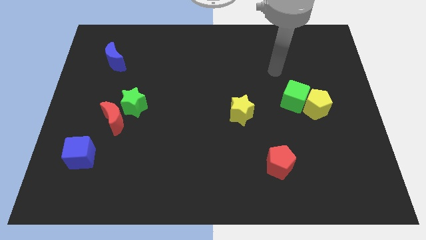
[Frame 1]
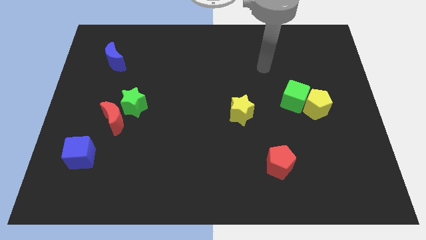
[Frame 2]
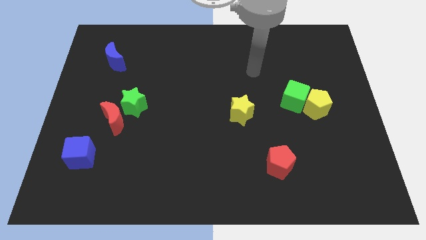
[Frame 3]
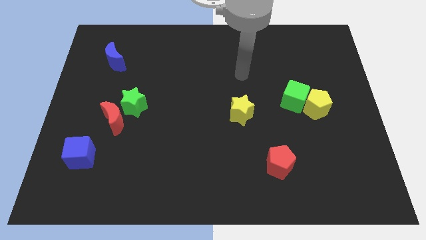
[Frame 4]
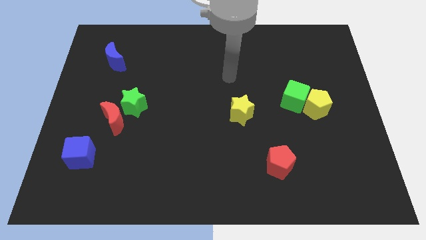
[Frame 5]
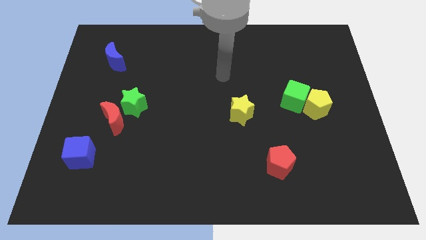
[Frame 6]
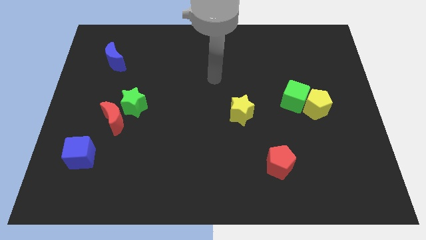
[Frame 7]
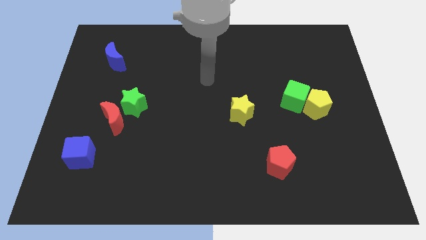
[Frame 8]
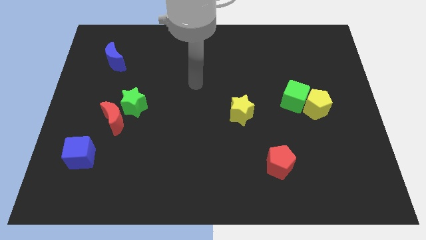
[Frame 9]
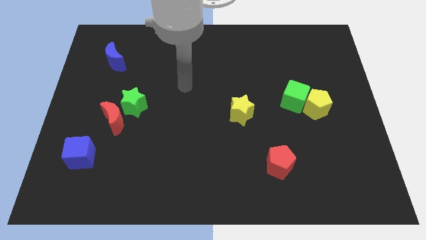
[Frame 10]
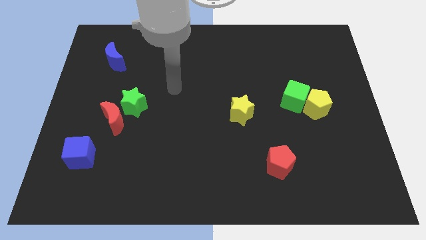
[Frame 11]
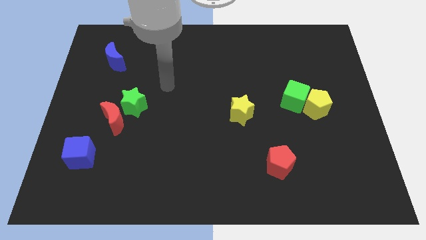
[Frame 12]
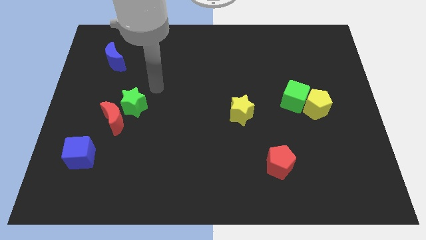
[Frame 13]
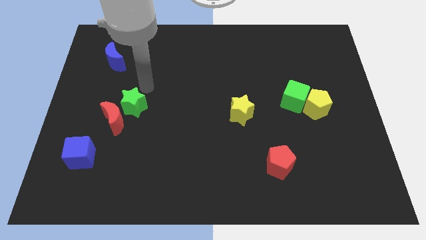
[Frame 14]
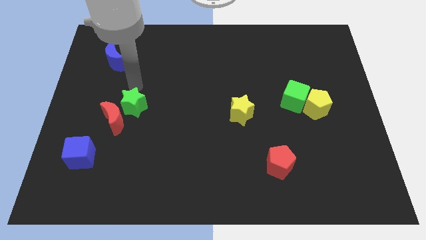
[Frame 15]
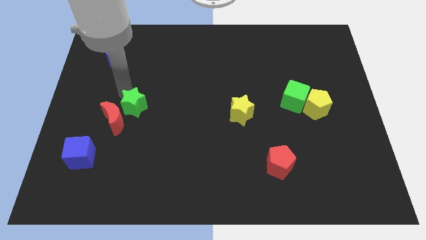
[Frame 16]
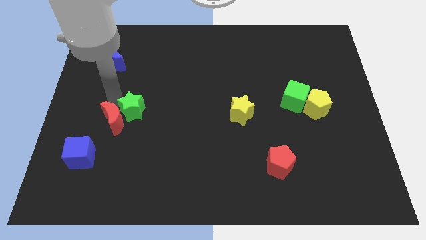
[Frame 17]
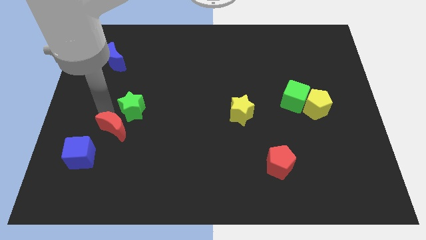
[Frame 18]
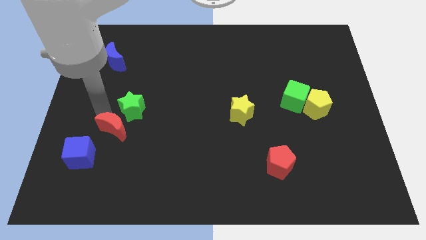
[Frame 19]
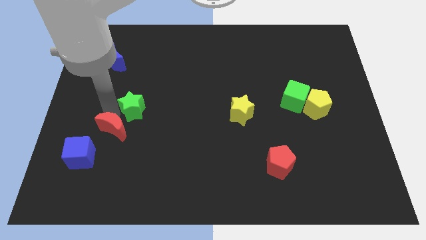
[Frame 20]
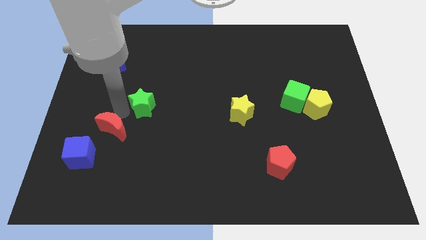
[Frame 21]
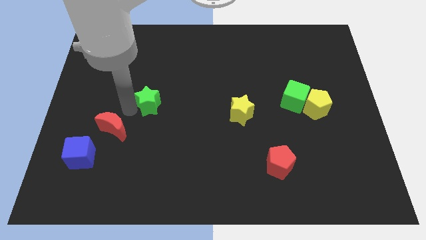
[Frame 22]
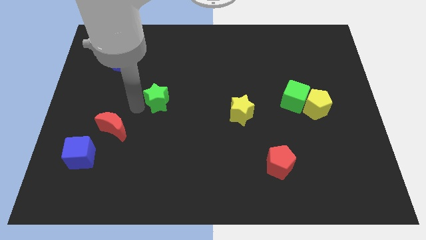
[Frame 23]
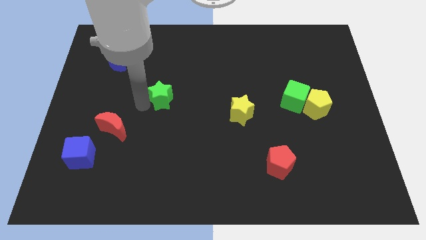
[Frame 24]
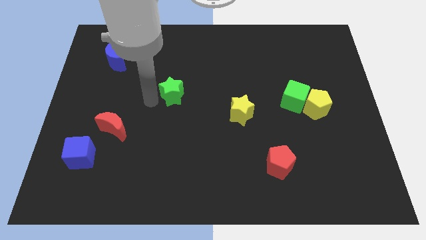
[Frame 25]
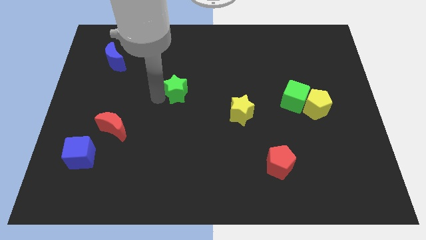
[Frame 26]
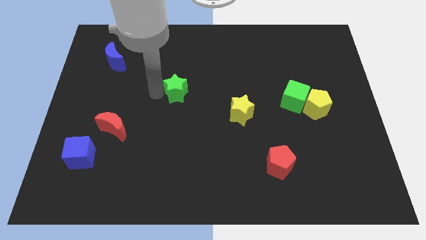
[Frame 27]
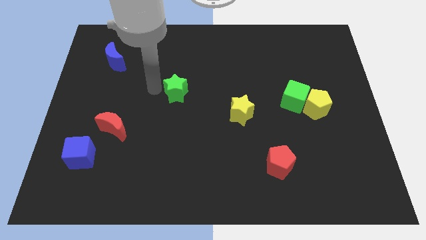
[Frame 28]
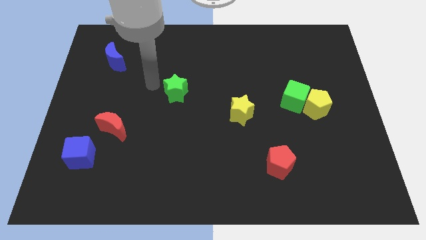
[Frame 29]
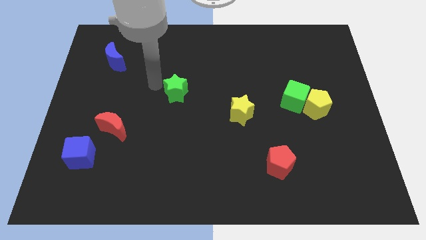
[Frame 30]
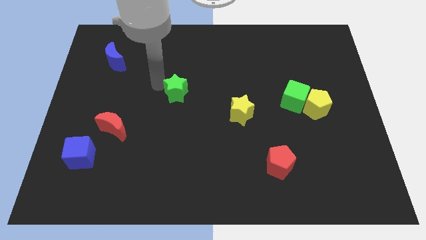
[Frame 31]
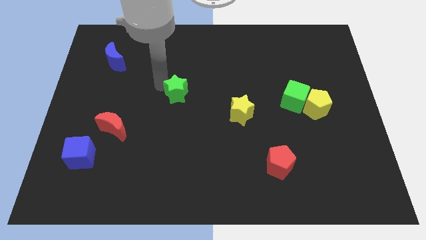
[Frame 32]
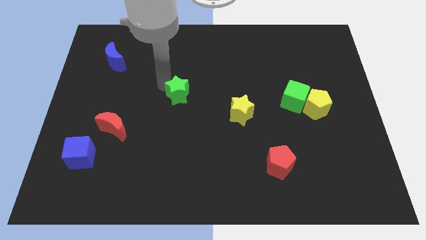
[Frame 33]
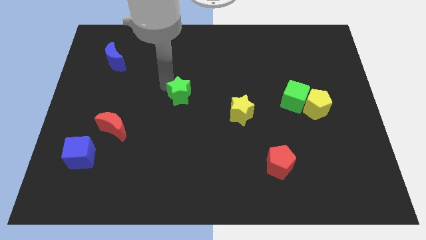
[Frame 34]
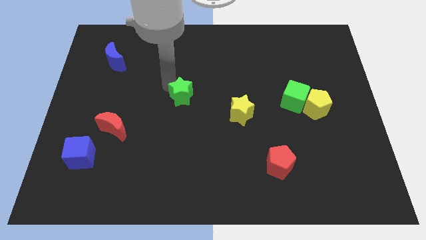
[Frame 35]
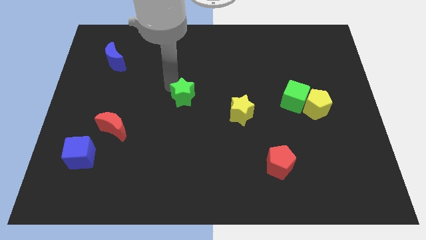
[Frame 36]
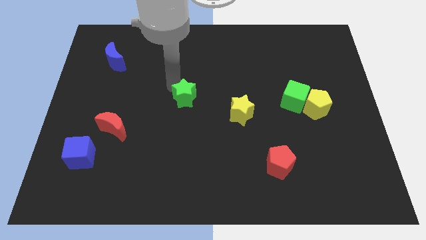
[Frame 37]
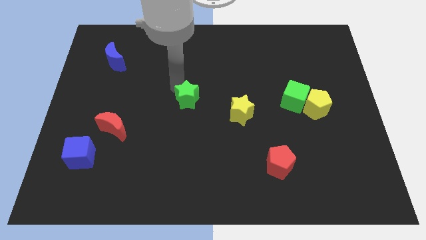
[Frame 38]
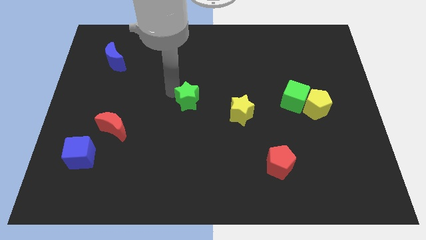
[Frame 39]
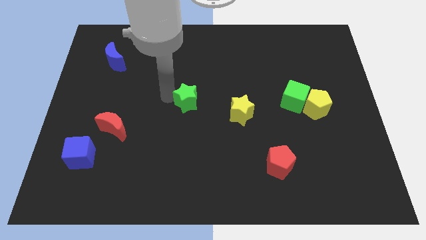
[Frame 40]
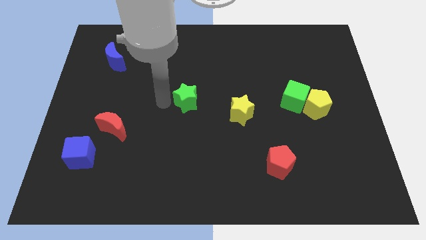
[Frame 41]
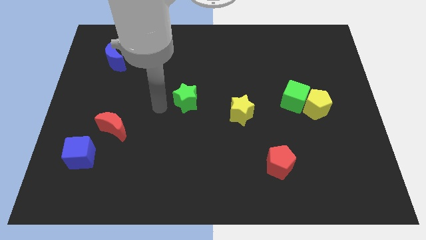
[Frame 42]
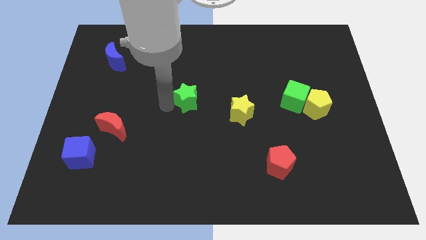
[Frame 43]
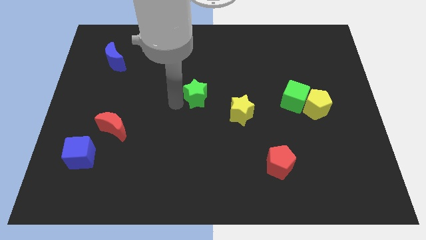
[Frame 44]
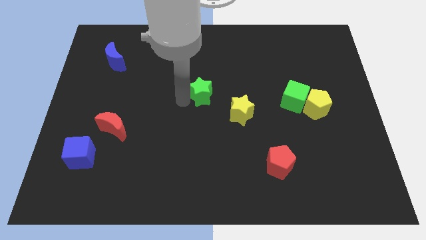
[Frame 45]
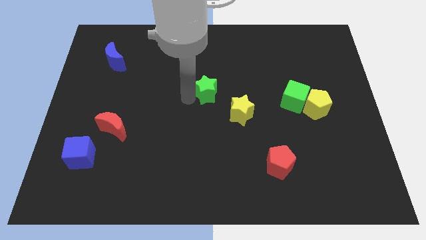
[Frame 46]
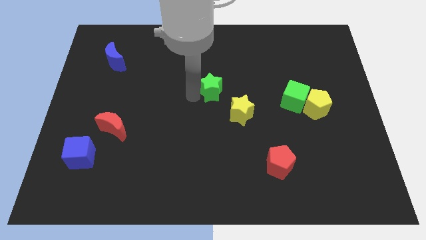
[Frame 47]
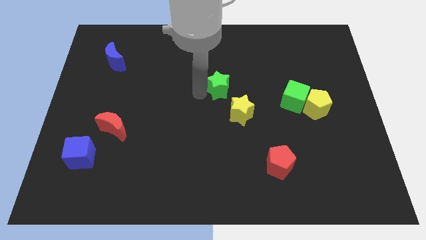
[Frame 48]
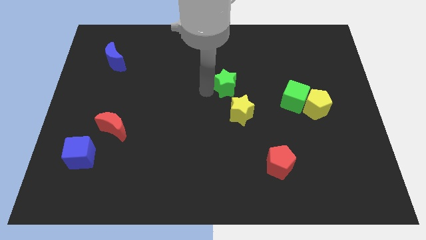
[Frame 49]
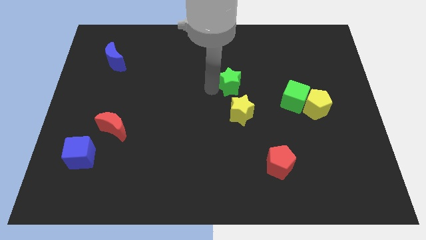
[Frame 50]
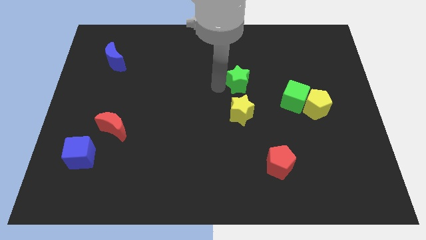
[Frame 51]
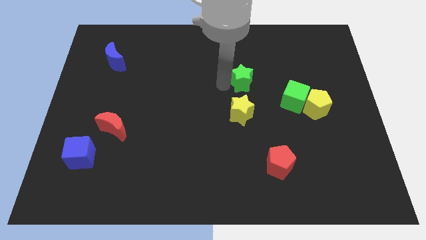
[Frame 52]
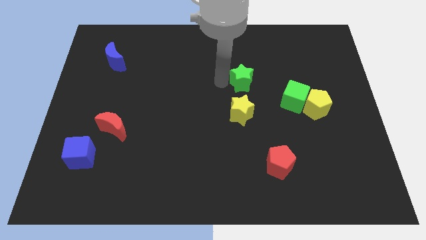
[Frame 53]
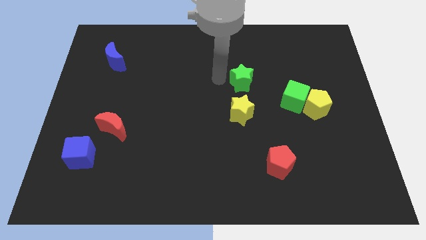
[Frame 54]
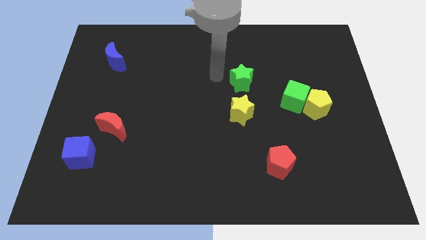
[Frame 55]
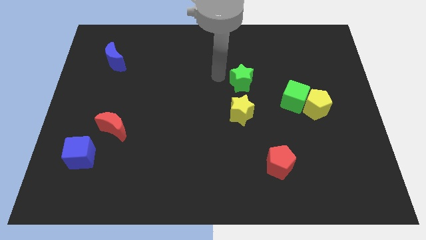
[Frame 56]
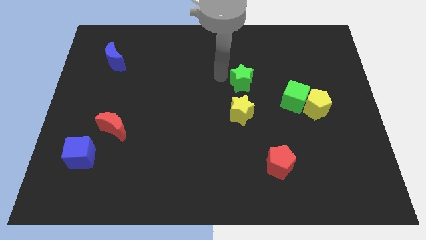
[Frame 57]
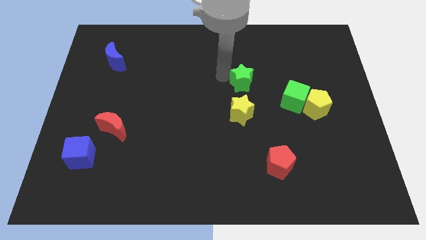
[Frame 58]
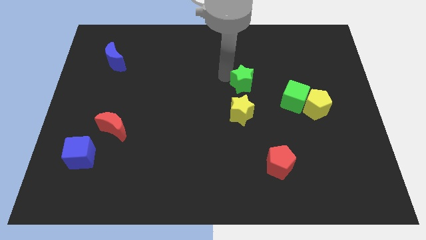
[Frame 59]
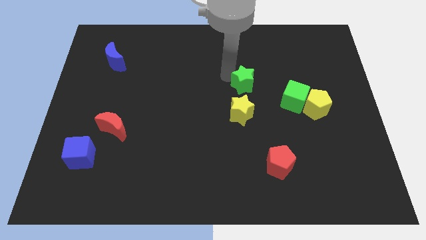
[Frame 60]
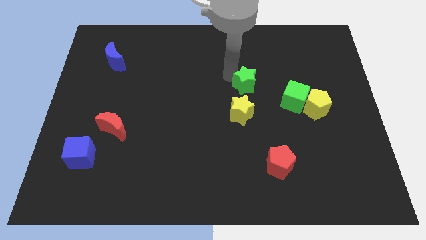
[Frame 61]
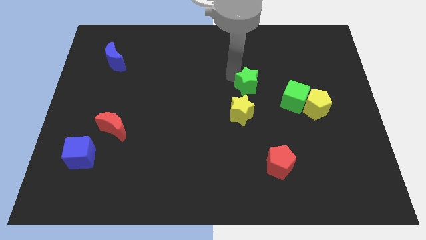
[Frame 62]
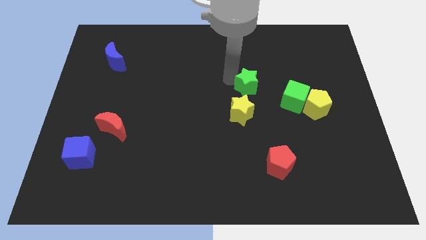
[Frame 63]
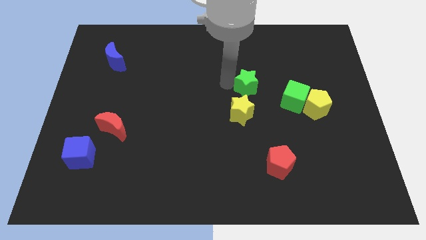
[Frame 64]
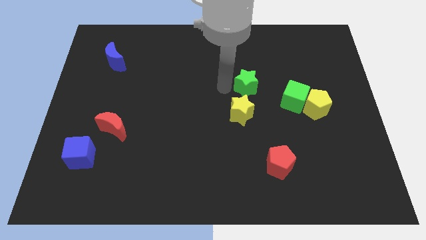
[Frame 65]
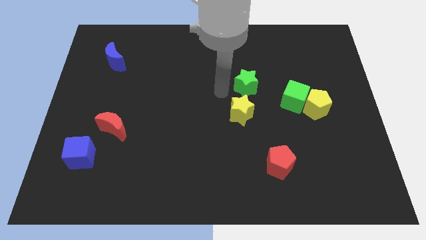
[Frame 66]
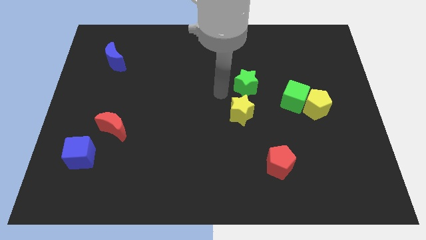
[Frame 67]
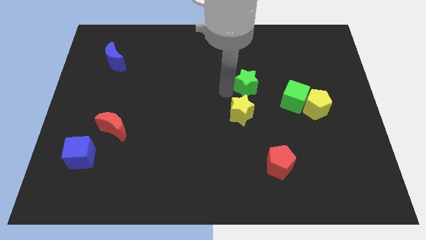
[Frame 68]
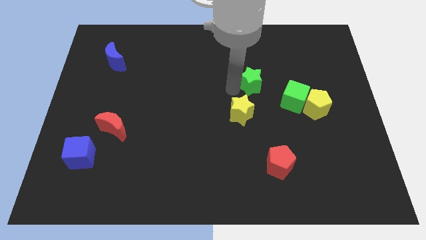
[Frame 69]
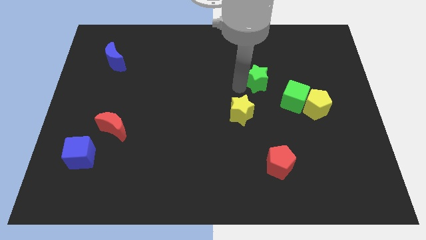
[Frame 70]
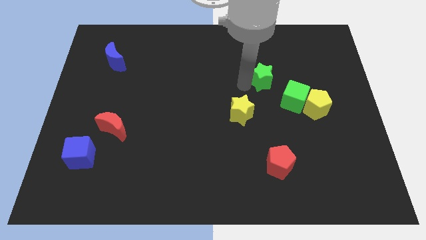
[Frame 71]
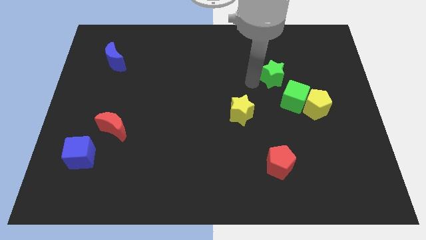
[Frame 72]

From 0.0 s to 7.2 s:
move the green star to the top side of the green cube

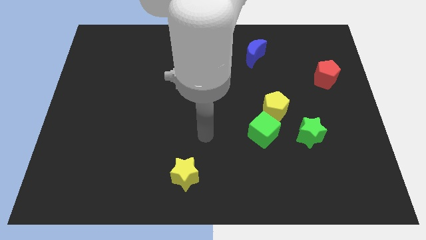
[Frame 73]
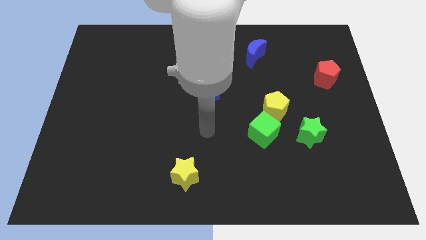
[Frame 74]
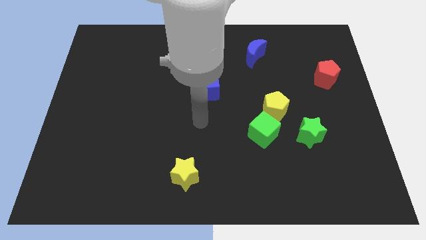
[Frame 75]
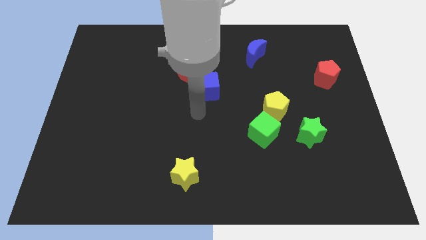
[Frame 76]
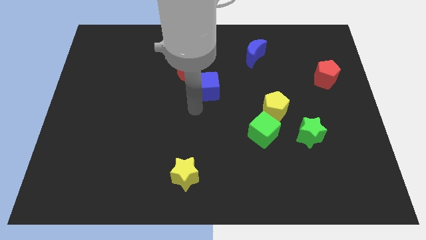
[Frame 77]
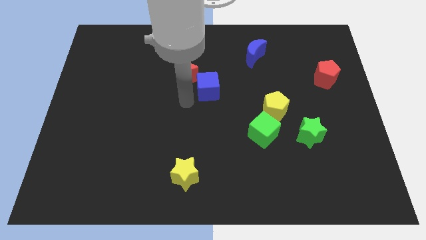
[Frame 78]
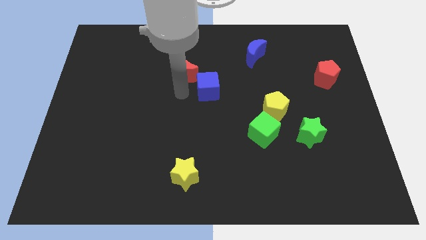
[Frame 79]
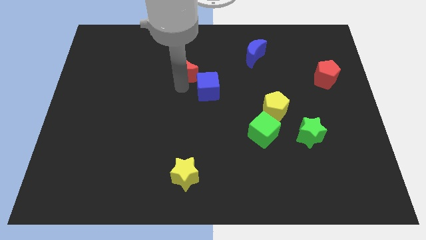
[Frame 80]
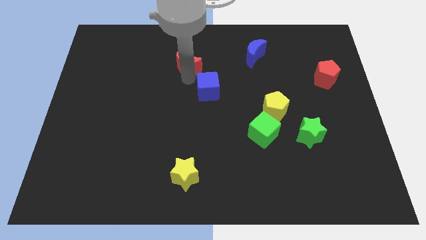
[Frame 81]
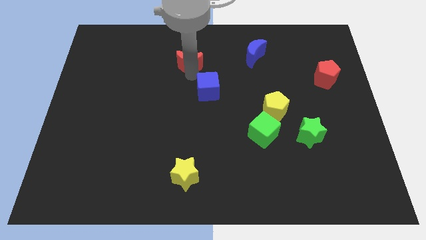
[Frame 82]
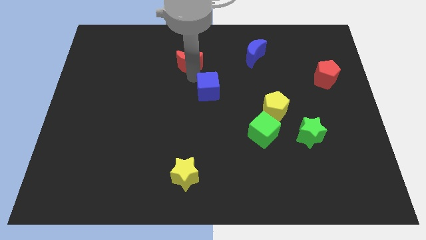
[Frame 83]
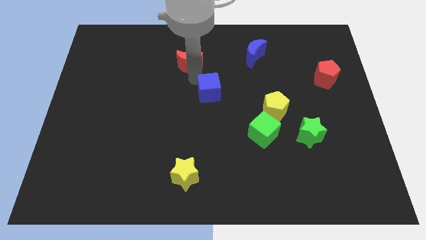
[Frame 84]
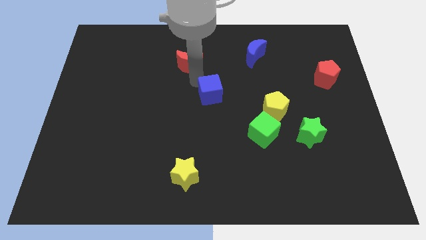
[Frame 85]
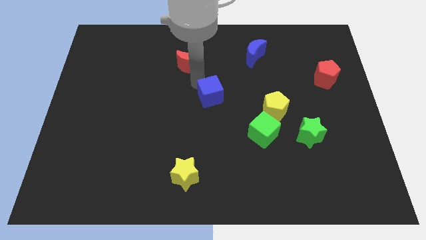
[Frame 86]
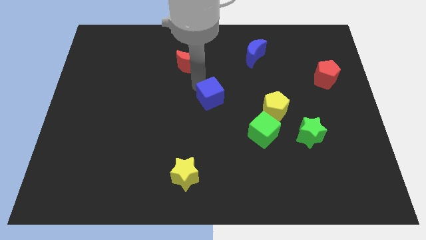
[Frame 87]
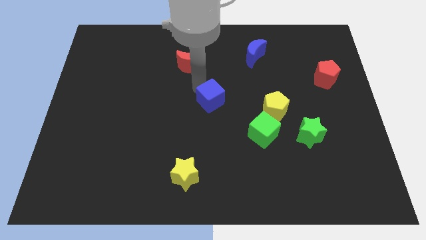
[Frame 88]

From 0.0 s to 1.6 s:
move the blue cube to the left side of the yellow pentagon
